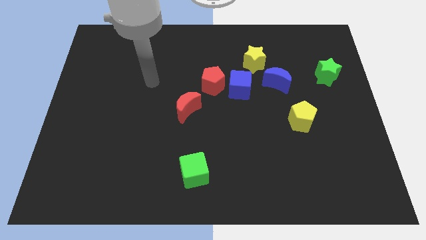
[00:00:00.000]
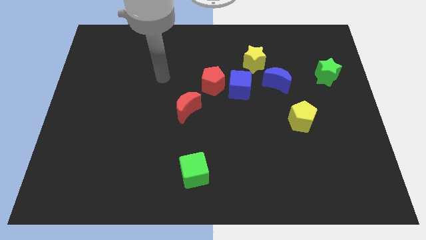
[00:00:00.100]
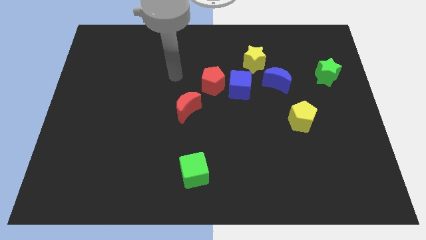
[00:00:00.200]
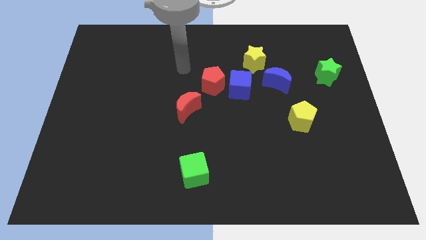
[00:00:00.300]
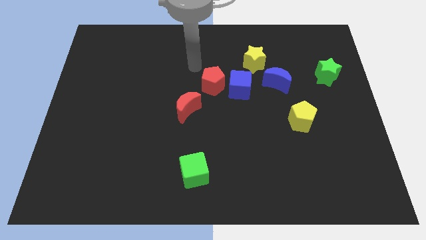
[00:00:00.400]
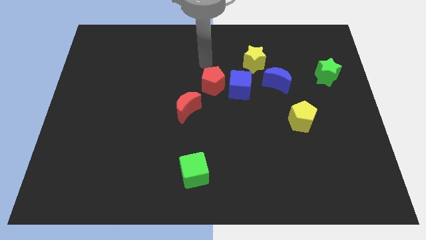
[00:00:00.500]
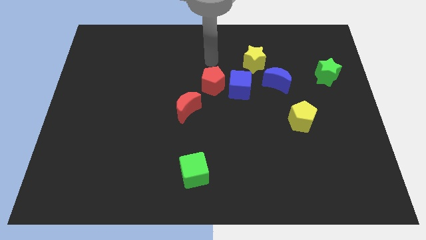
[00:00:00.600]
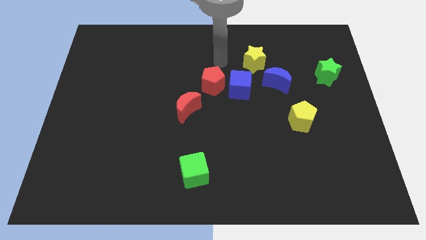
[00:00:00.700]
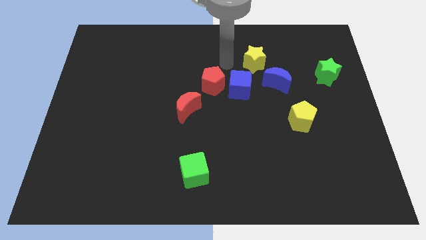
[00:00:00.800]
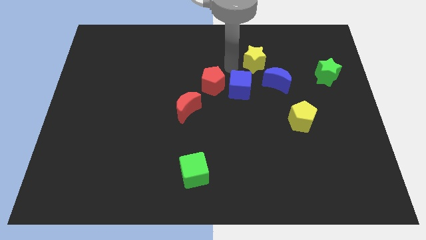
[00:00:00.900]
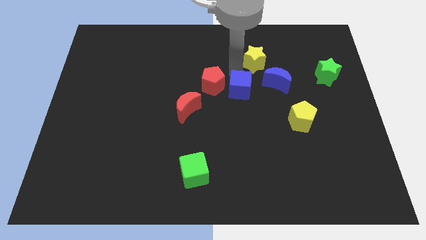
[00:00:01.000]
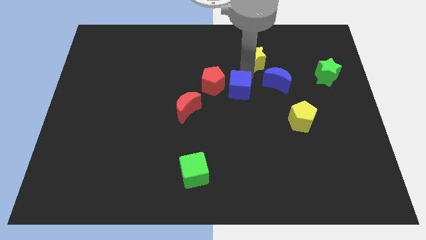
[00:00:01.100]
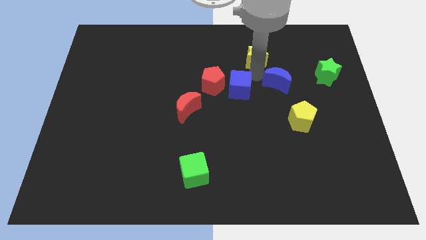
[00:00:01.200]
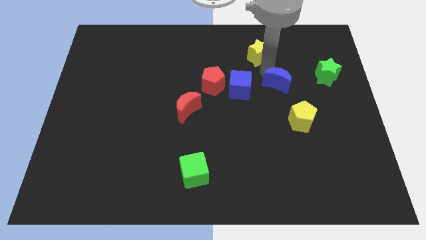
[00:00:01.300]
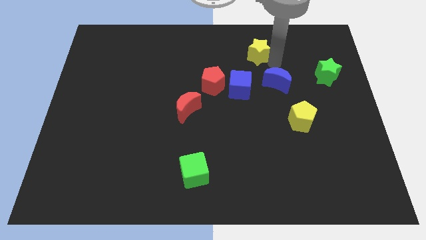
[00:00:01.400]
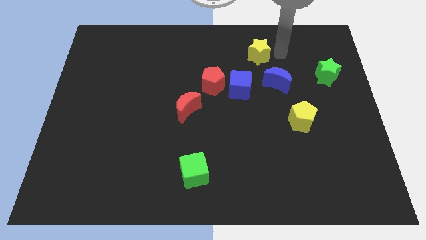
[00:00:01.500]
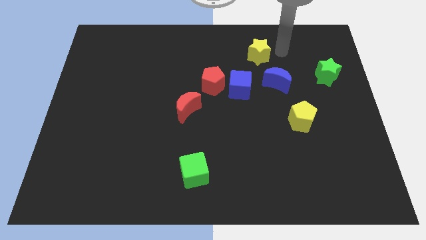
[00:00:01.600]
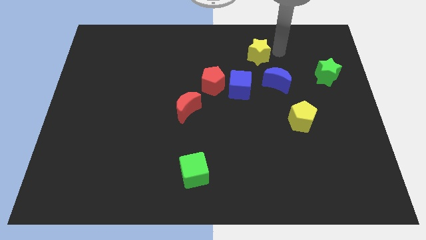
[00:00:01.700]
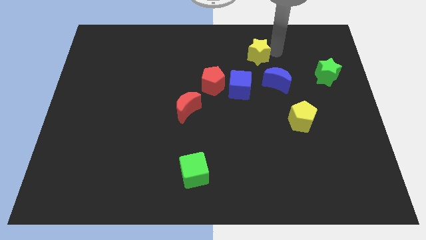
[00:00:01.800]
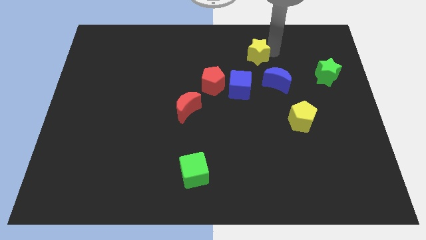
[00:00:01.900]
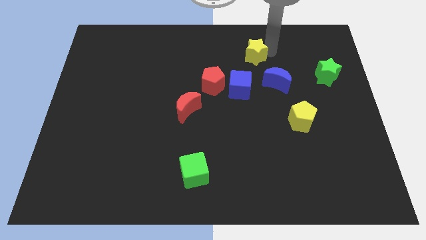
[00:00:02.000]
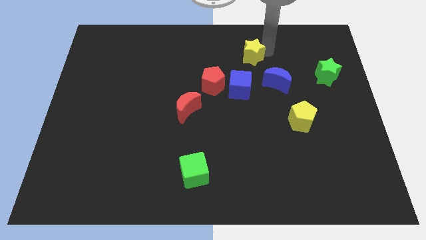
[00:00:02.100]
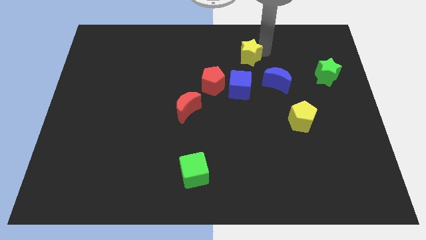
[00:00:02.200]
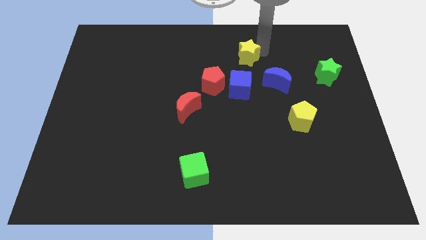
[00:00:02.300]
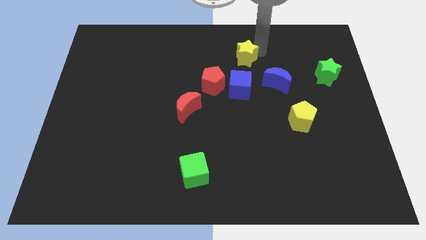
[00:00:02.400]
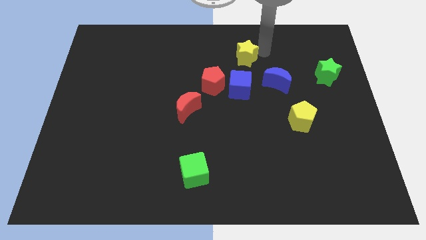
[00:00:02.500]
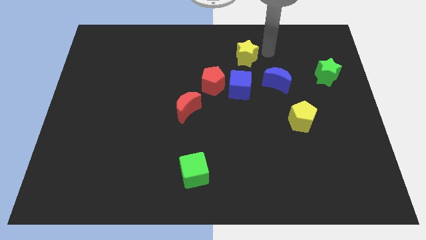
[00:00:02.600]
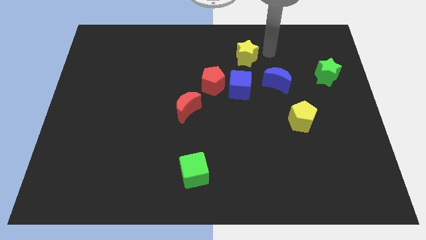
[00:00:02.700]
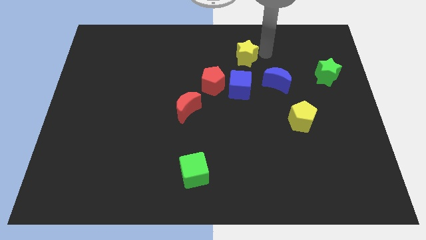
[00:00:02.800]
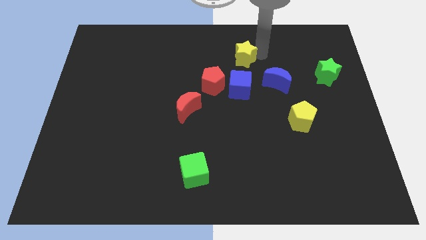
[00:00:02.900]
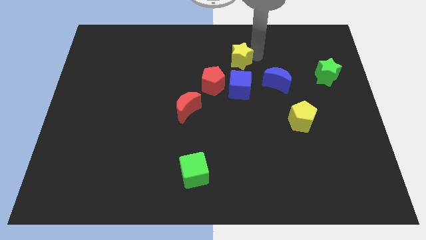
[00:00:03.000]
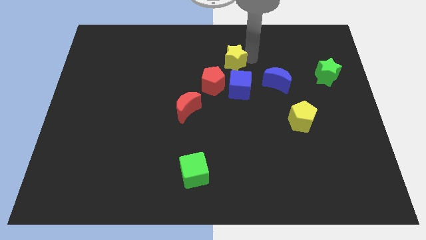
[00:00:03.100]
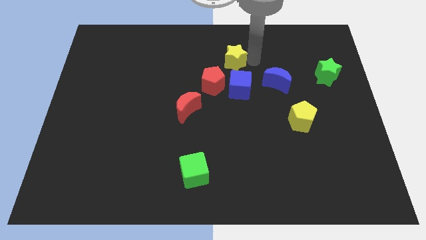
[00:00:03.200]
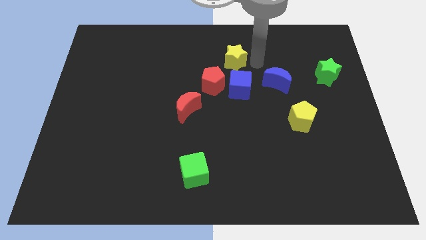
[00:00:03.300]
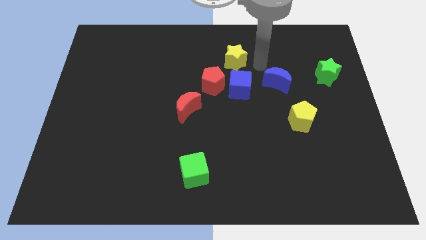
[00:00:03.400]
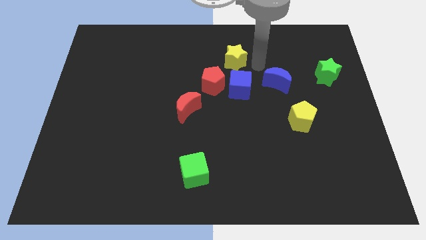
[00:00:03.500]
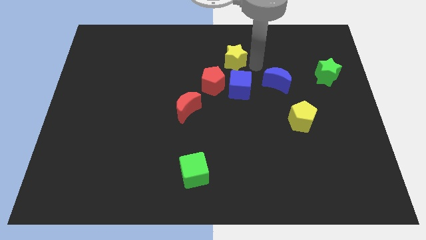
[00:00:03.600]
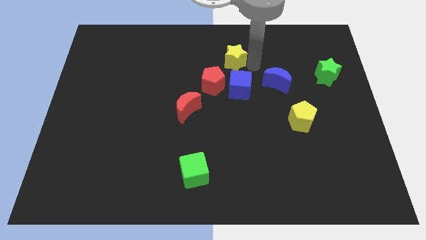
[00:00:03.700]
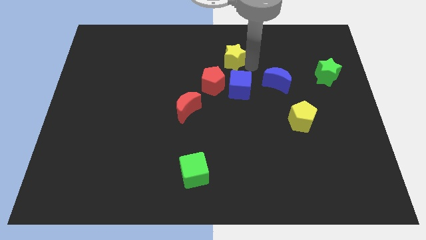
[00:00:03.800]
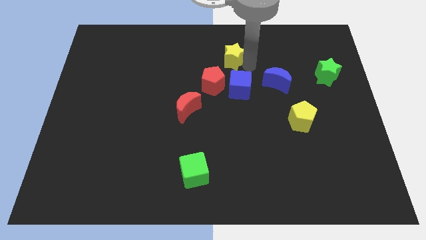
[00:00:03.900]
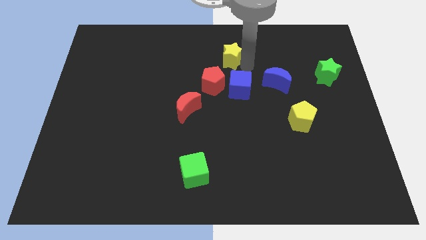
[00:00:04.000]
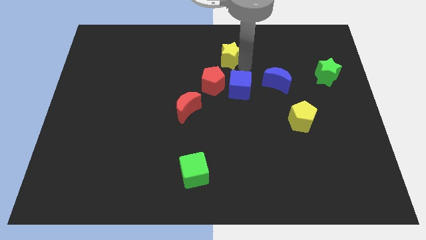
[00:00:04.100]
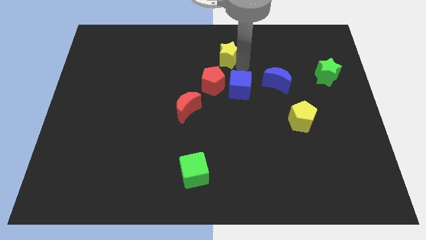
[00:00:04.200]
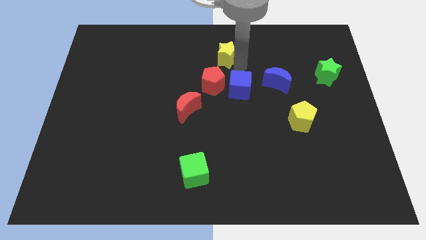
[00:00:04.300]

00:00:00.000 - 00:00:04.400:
move the yellow star somewhat left

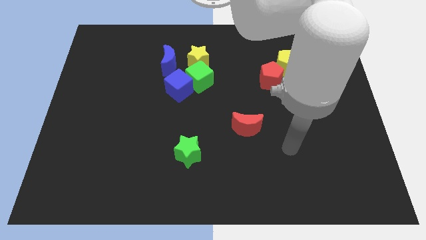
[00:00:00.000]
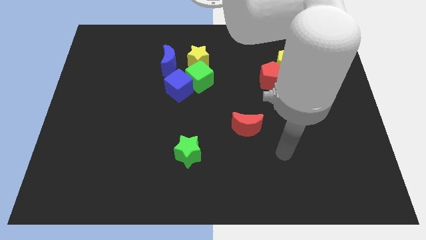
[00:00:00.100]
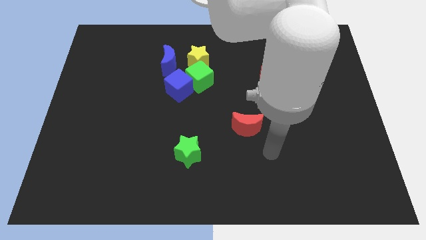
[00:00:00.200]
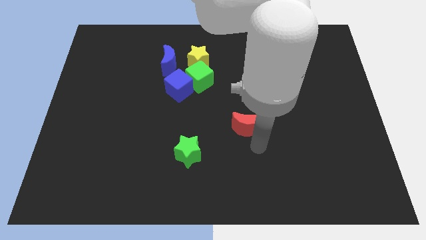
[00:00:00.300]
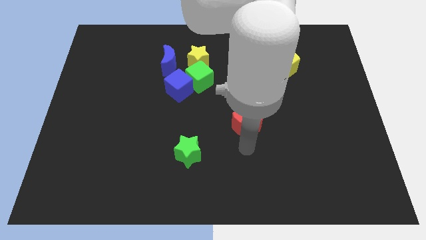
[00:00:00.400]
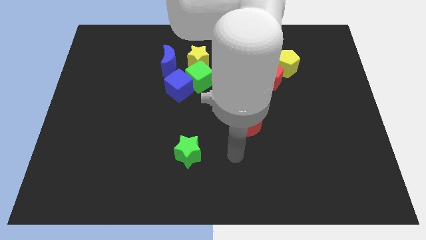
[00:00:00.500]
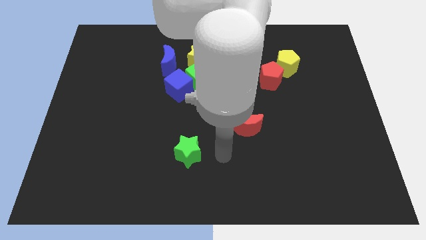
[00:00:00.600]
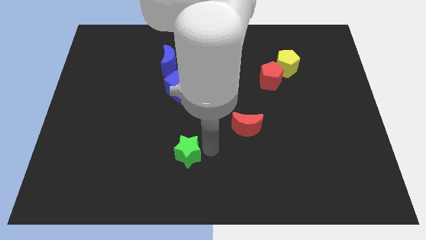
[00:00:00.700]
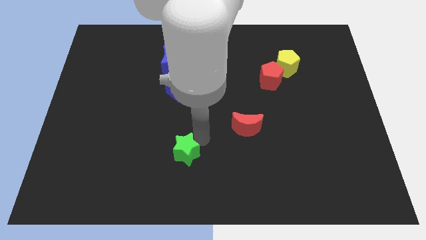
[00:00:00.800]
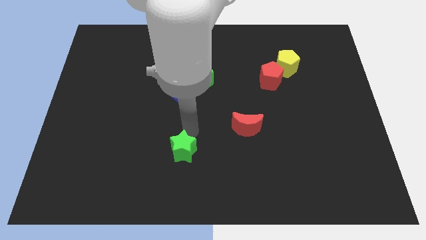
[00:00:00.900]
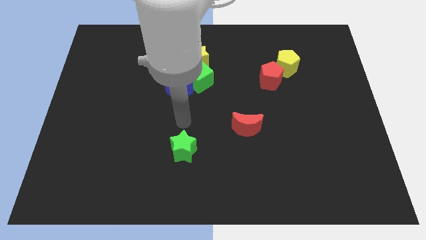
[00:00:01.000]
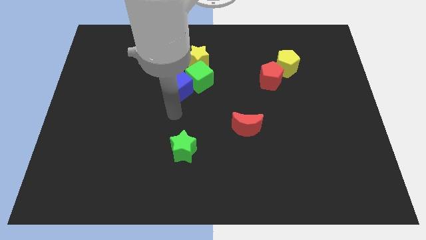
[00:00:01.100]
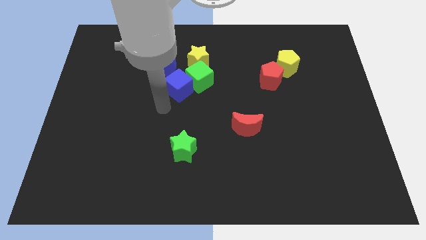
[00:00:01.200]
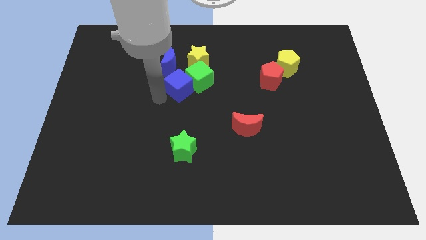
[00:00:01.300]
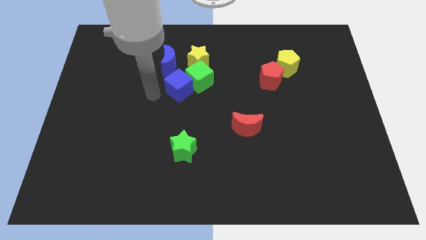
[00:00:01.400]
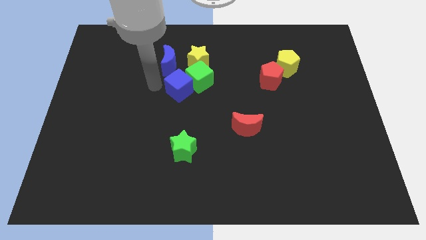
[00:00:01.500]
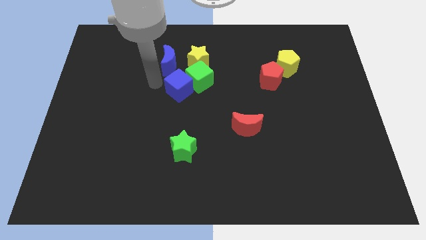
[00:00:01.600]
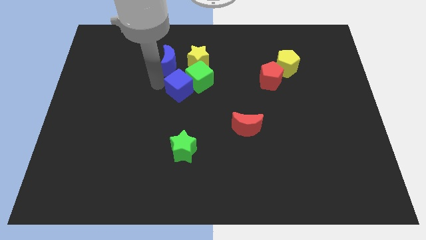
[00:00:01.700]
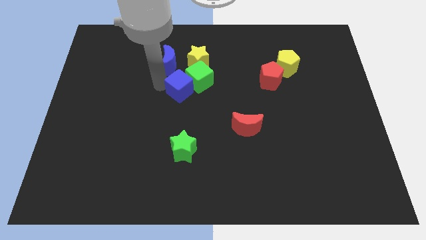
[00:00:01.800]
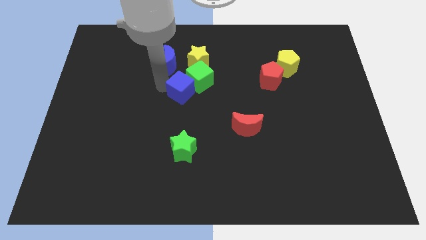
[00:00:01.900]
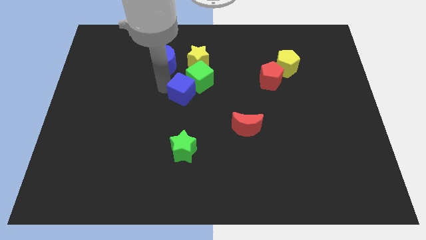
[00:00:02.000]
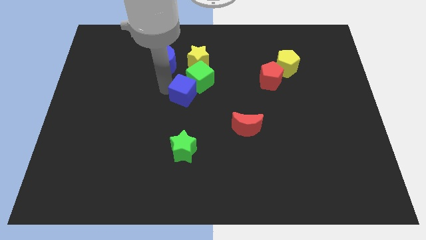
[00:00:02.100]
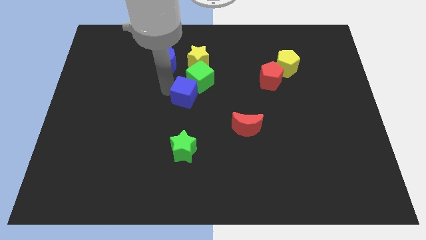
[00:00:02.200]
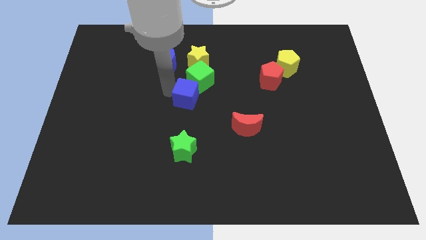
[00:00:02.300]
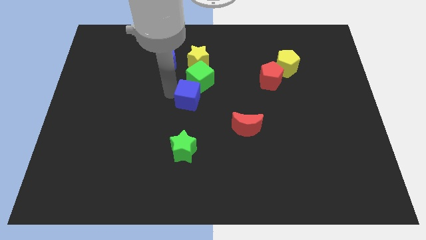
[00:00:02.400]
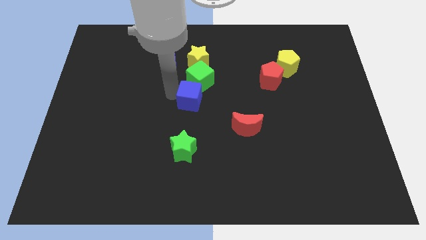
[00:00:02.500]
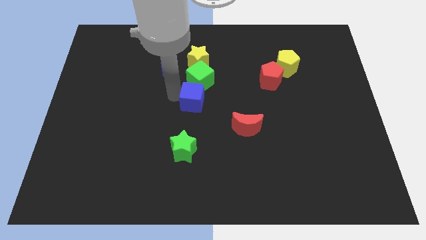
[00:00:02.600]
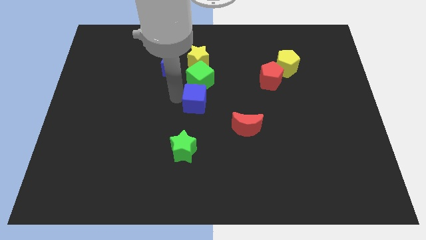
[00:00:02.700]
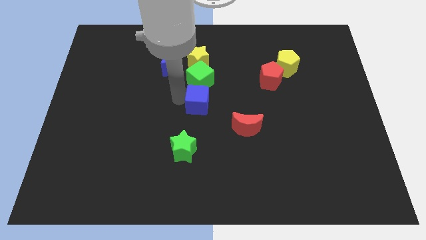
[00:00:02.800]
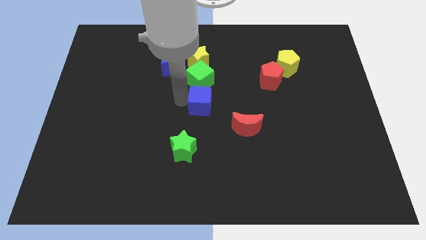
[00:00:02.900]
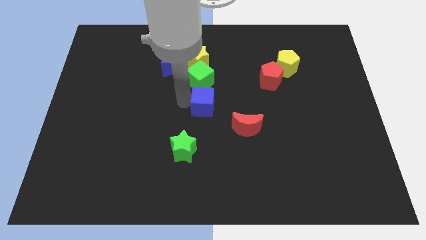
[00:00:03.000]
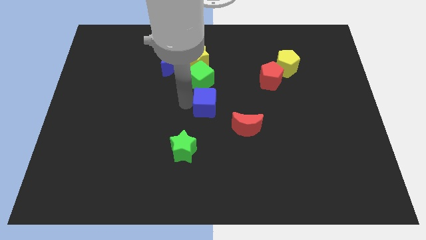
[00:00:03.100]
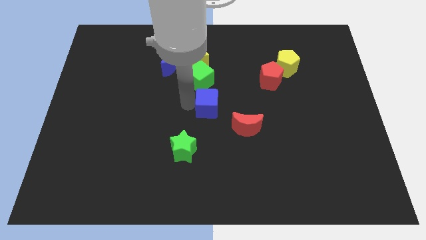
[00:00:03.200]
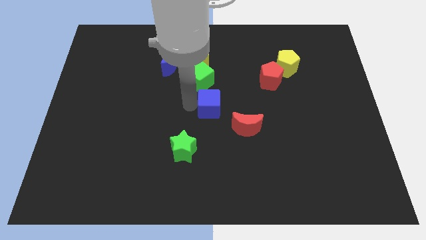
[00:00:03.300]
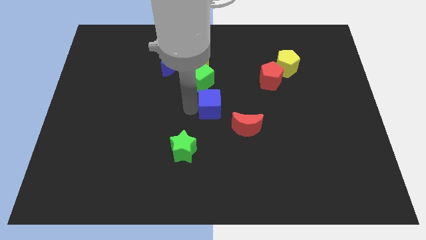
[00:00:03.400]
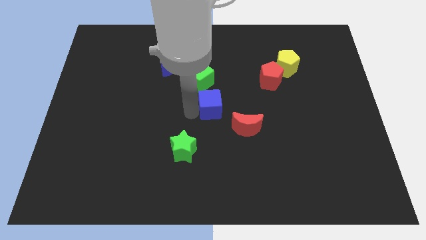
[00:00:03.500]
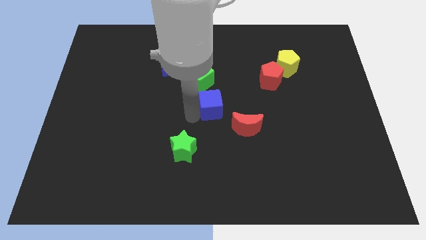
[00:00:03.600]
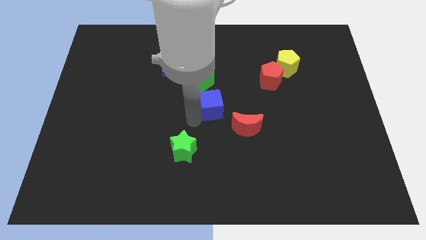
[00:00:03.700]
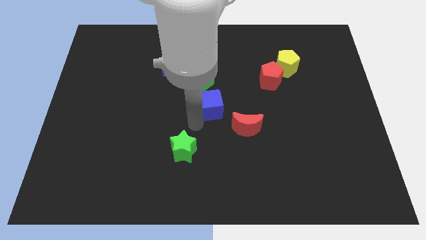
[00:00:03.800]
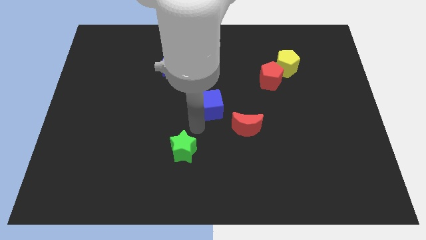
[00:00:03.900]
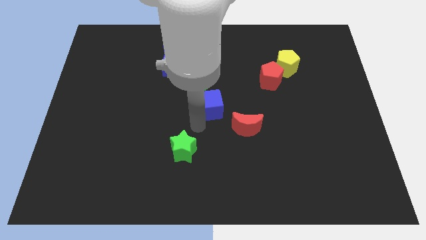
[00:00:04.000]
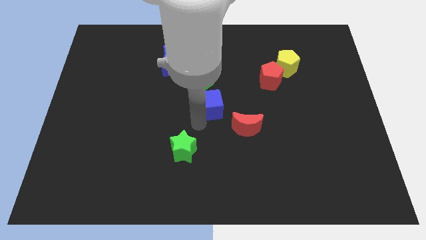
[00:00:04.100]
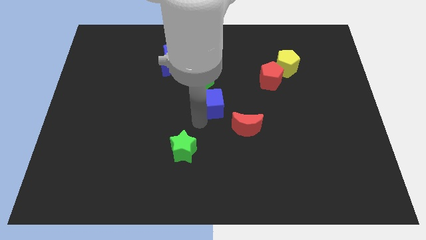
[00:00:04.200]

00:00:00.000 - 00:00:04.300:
slide the blue cube somewhat to the right
